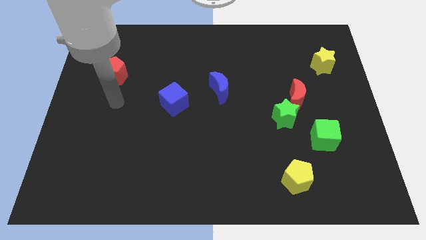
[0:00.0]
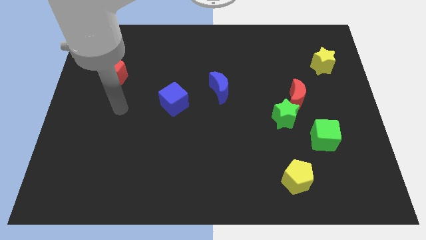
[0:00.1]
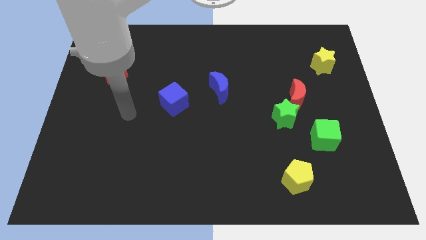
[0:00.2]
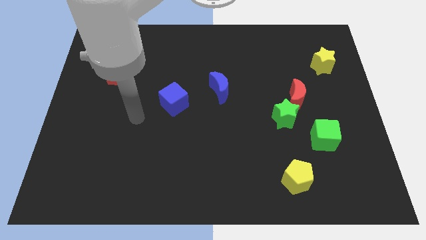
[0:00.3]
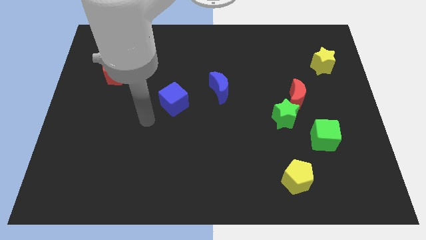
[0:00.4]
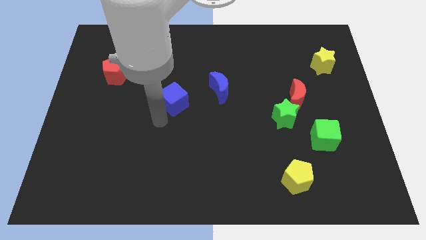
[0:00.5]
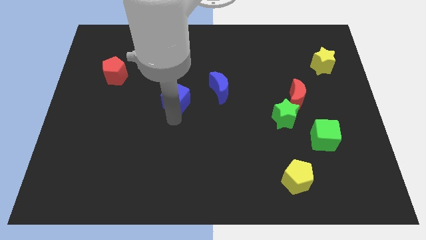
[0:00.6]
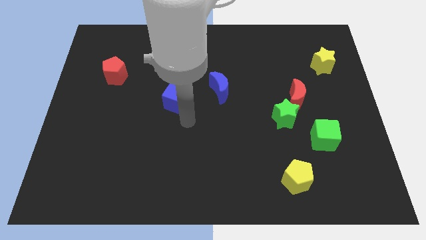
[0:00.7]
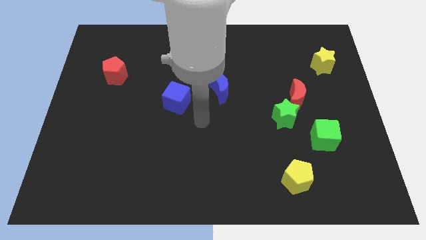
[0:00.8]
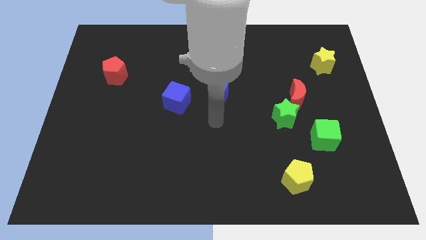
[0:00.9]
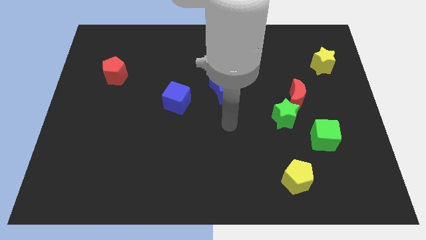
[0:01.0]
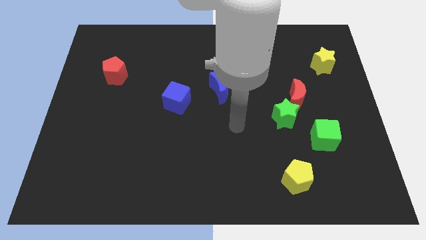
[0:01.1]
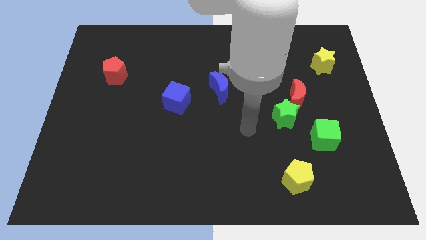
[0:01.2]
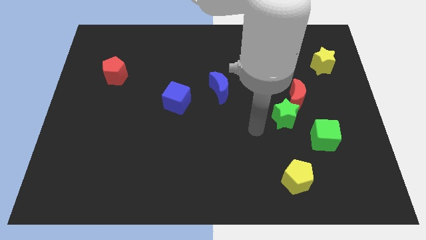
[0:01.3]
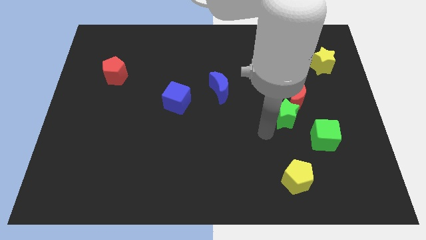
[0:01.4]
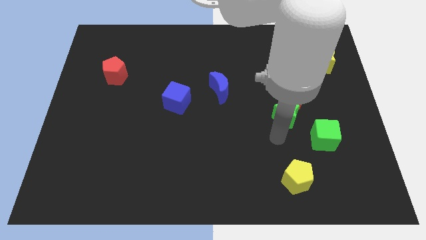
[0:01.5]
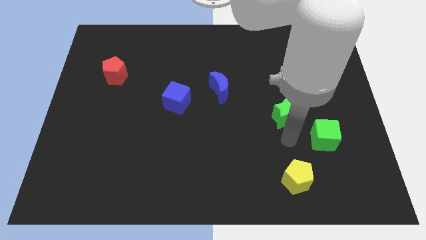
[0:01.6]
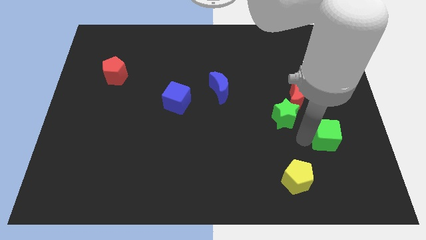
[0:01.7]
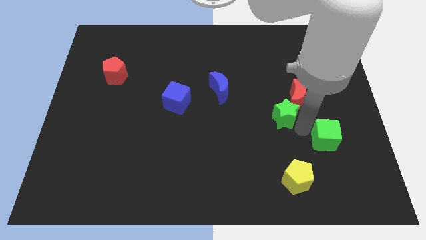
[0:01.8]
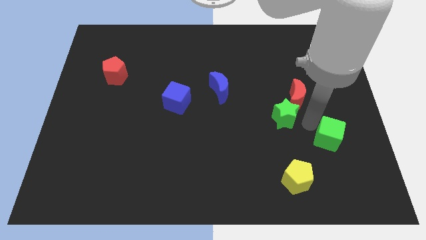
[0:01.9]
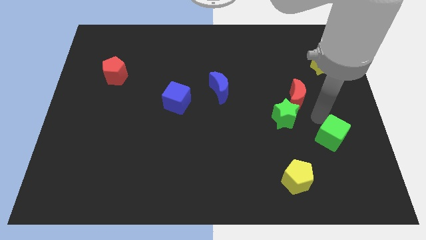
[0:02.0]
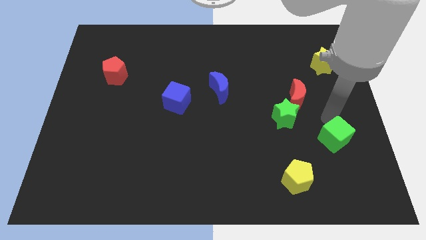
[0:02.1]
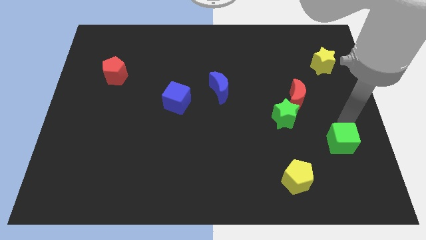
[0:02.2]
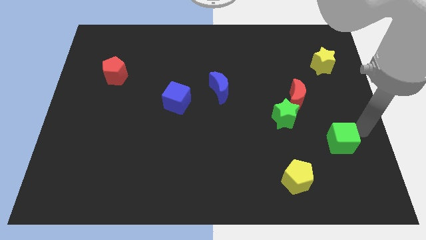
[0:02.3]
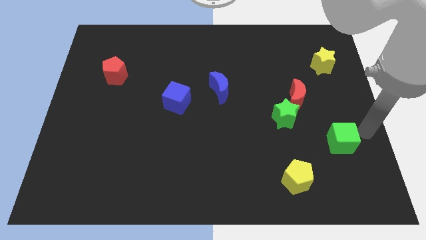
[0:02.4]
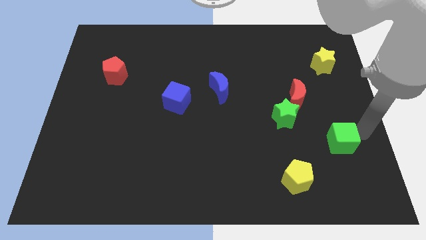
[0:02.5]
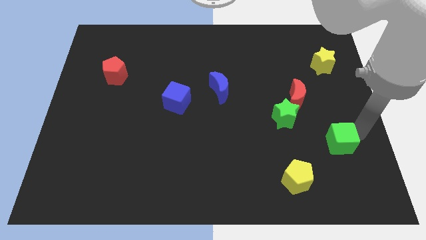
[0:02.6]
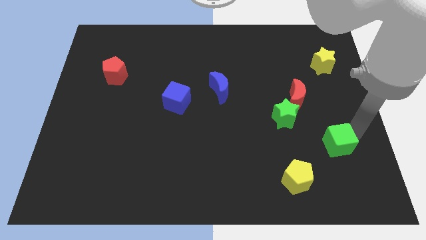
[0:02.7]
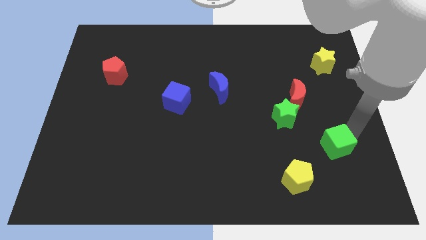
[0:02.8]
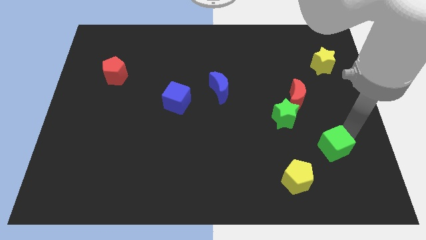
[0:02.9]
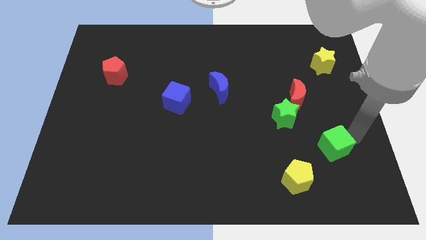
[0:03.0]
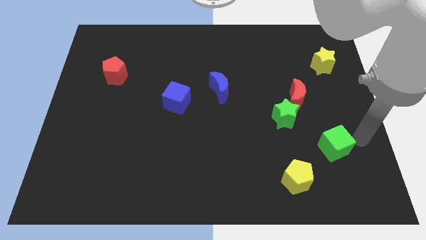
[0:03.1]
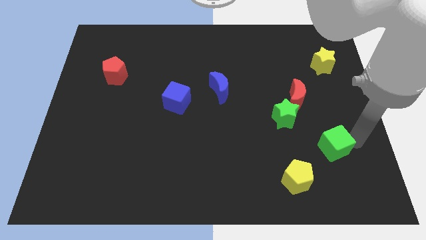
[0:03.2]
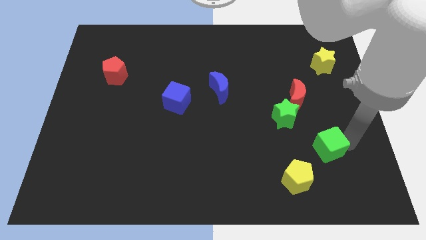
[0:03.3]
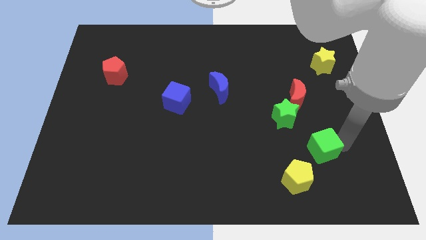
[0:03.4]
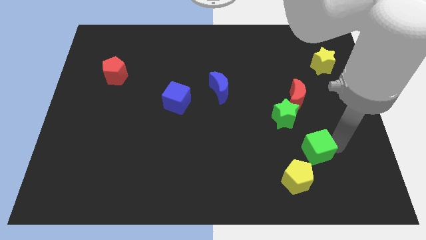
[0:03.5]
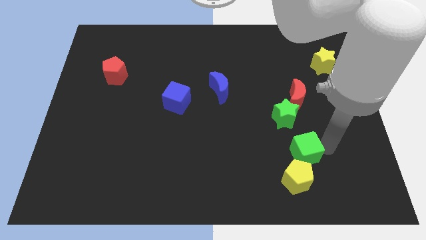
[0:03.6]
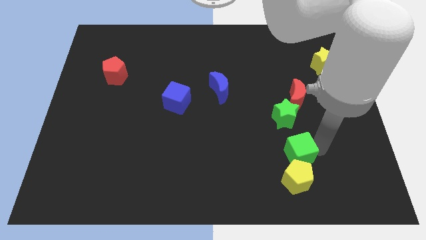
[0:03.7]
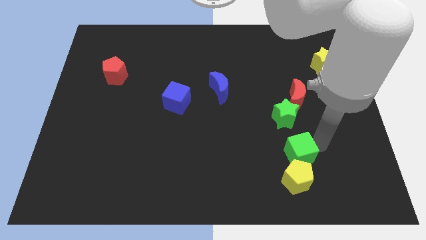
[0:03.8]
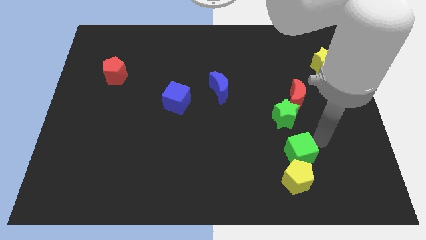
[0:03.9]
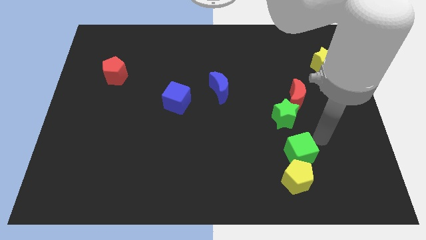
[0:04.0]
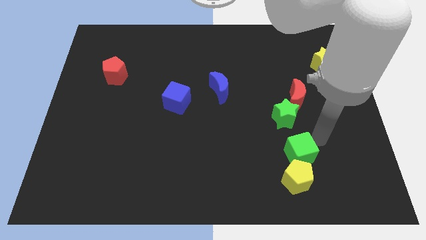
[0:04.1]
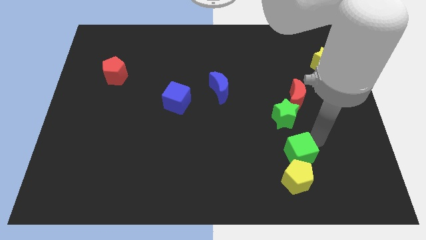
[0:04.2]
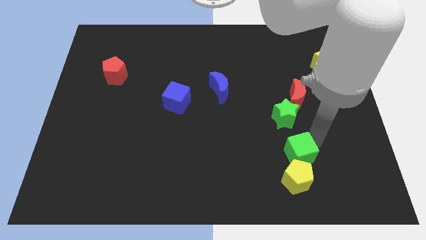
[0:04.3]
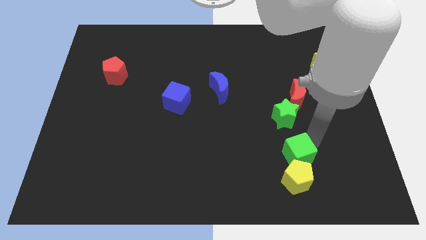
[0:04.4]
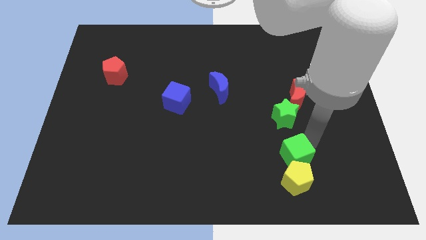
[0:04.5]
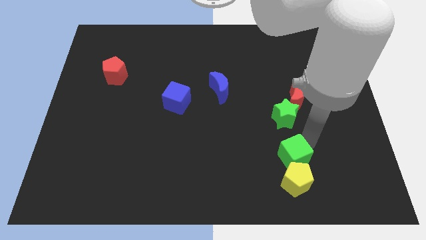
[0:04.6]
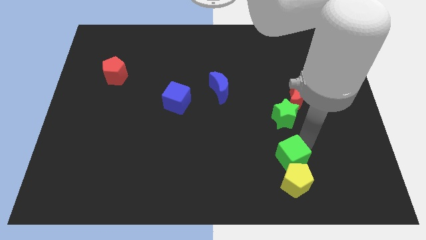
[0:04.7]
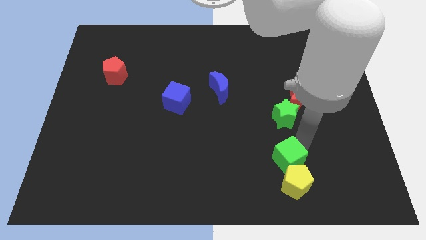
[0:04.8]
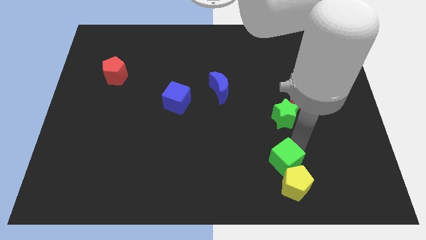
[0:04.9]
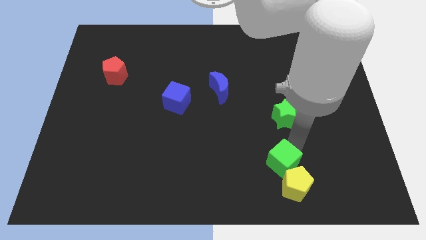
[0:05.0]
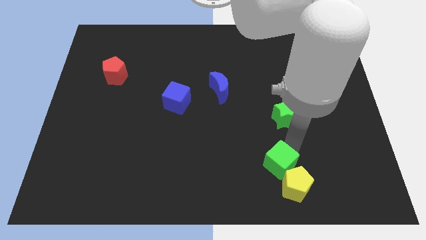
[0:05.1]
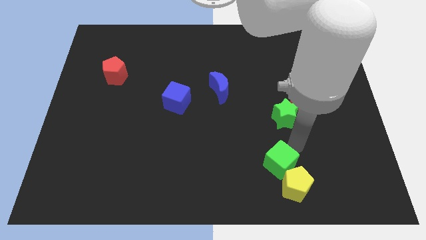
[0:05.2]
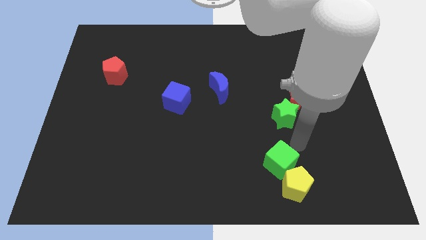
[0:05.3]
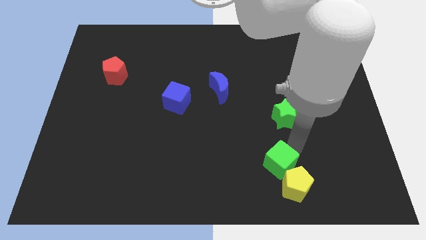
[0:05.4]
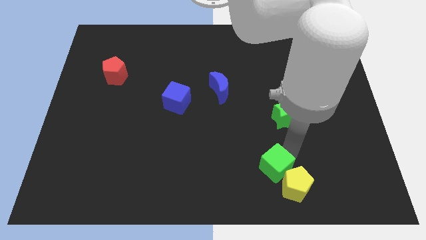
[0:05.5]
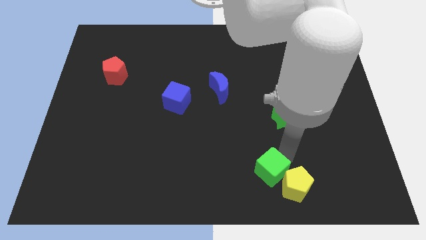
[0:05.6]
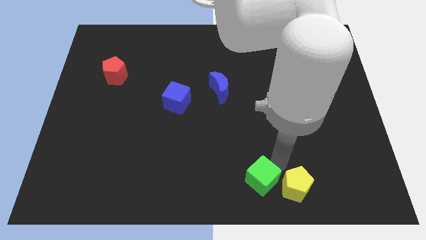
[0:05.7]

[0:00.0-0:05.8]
put the green cube to the bottom

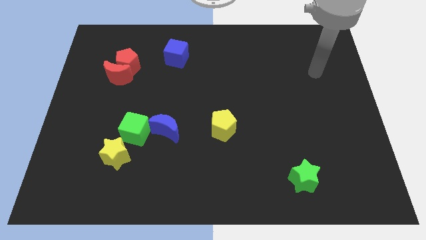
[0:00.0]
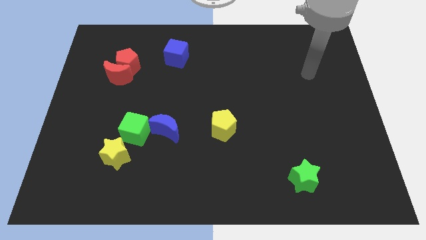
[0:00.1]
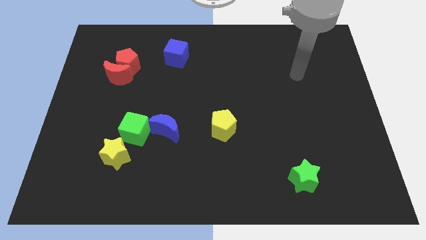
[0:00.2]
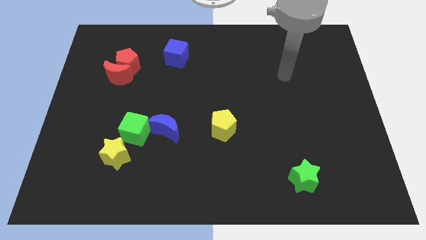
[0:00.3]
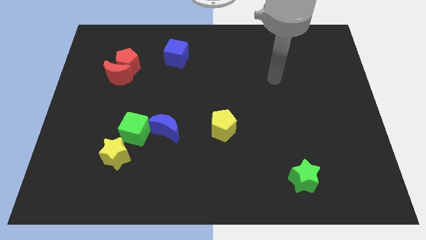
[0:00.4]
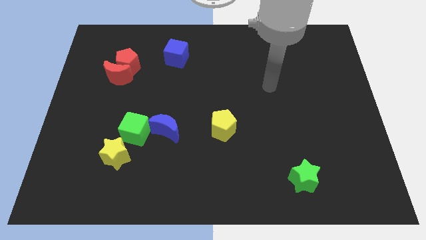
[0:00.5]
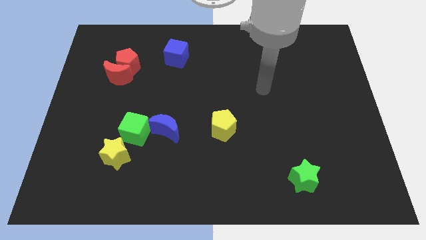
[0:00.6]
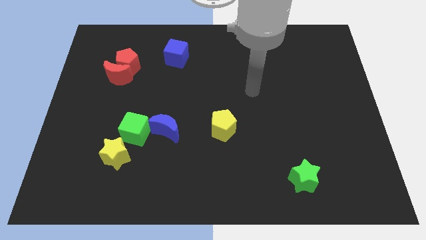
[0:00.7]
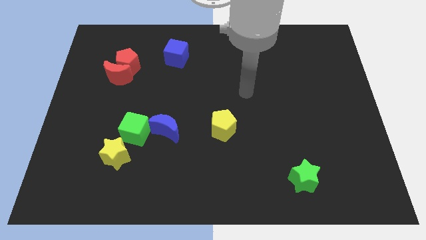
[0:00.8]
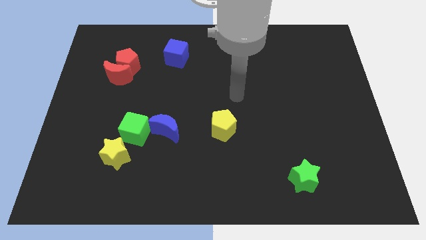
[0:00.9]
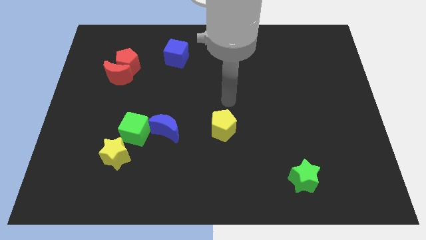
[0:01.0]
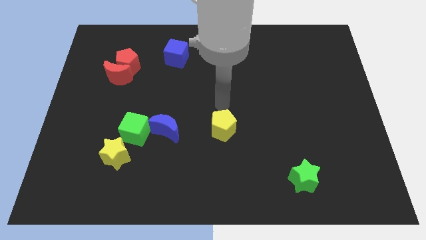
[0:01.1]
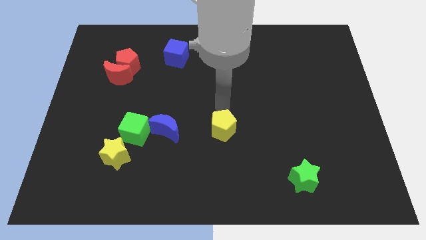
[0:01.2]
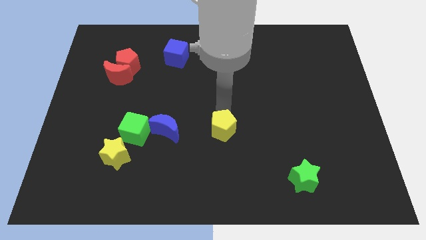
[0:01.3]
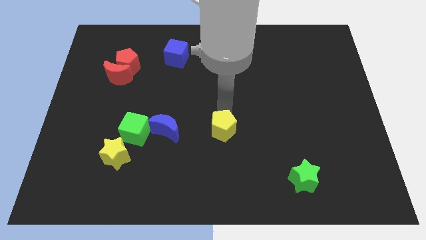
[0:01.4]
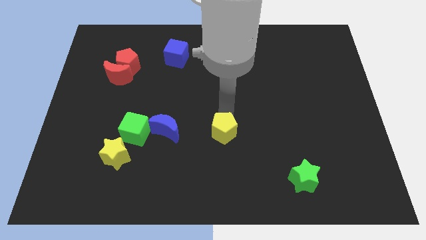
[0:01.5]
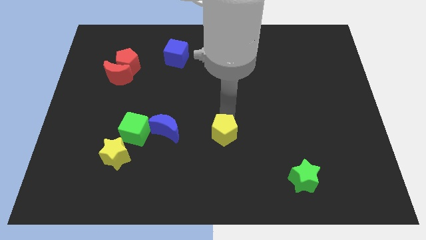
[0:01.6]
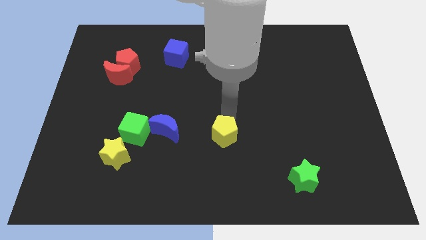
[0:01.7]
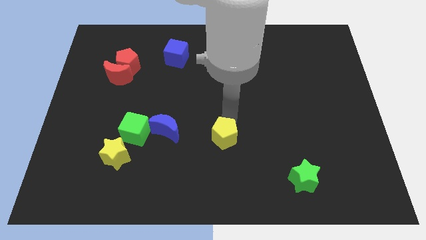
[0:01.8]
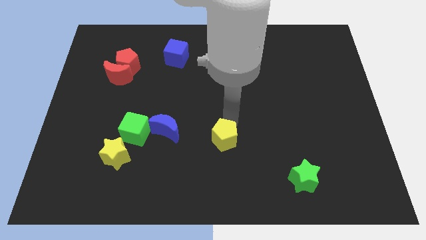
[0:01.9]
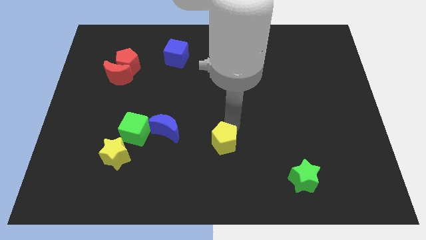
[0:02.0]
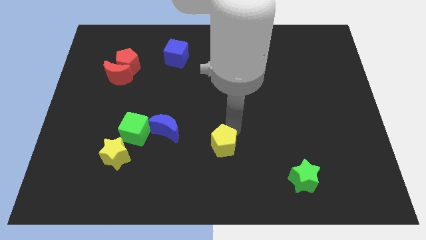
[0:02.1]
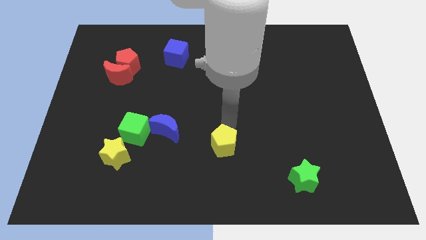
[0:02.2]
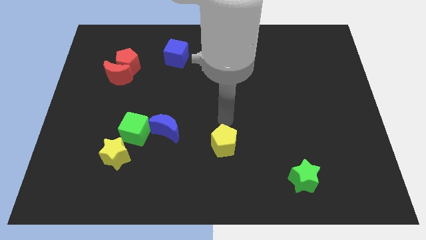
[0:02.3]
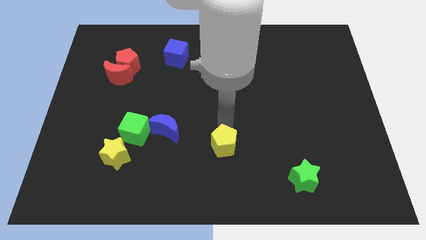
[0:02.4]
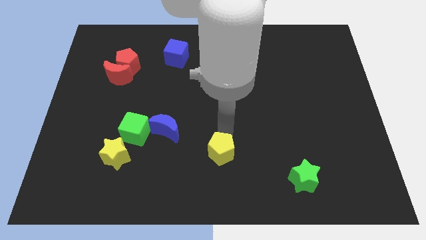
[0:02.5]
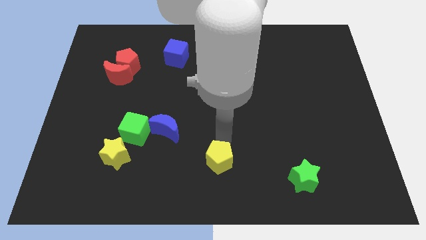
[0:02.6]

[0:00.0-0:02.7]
move the yellow pentagon to the bottom
